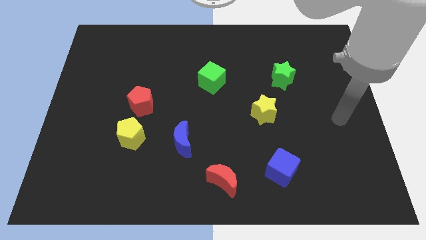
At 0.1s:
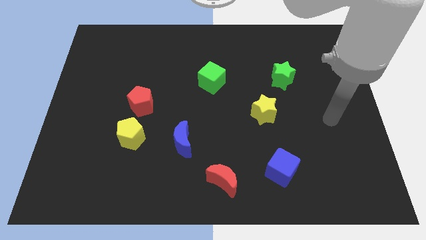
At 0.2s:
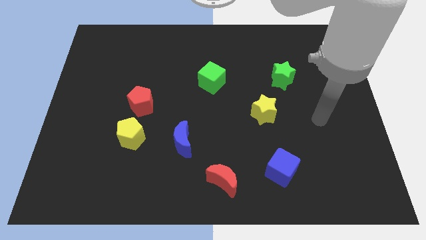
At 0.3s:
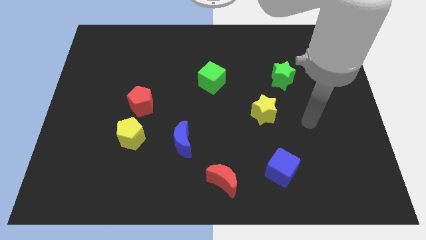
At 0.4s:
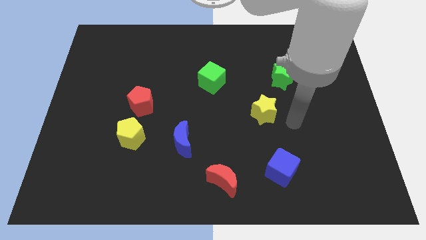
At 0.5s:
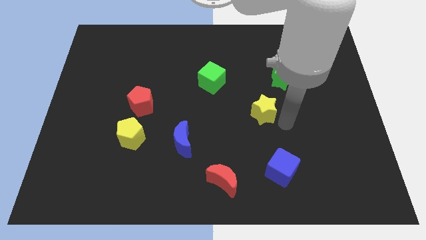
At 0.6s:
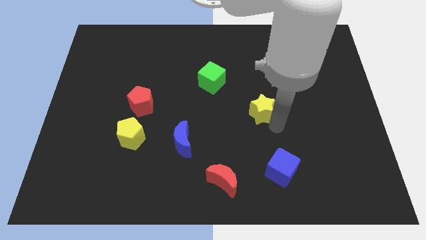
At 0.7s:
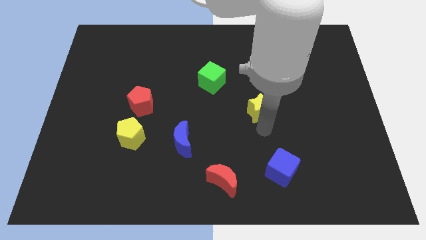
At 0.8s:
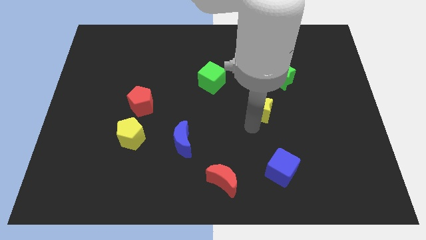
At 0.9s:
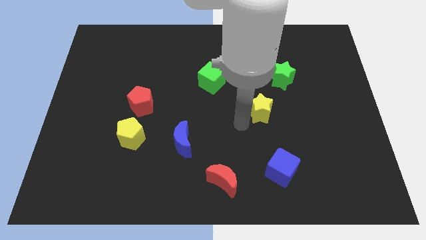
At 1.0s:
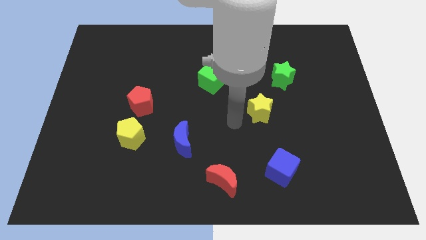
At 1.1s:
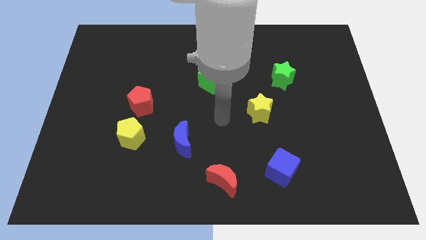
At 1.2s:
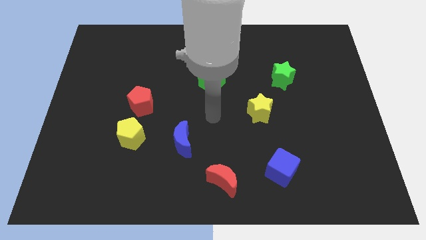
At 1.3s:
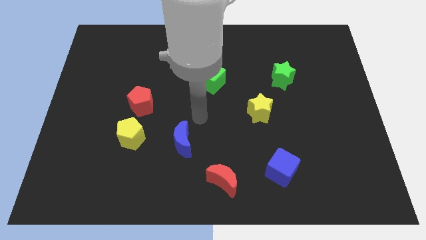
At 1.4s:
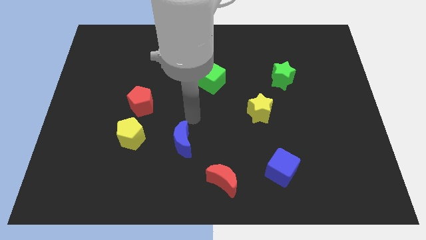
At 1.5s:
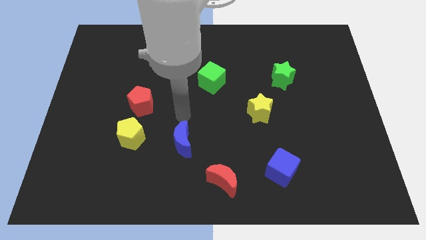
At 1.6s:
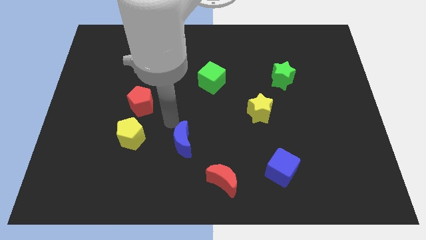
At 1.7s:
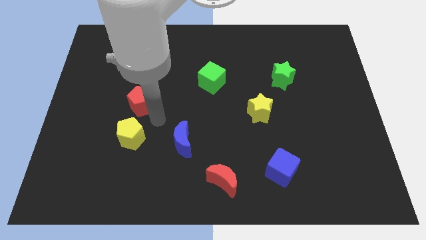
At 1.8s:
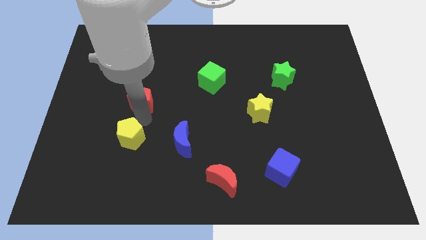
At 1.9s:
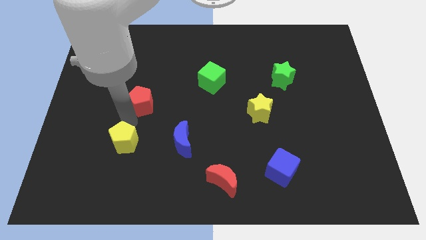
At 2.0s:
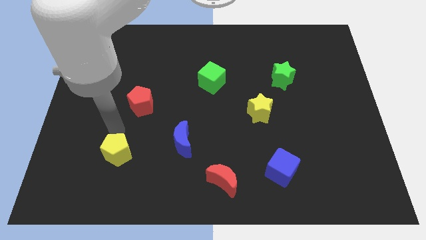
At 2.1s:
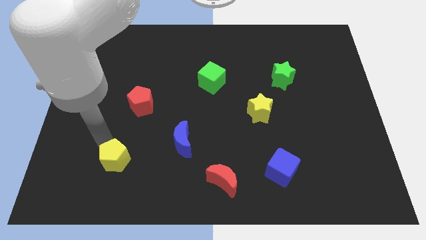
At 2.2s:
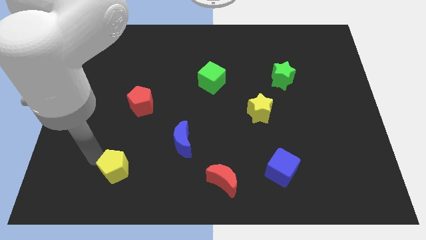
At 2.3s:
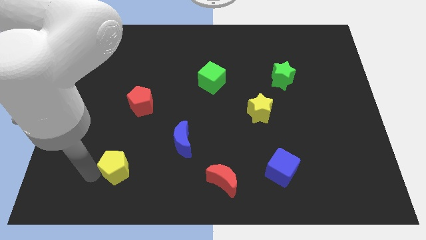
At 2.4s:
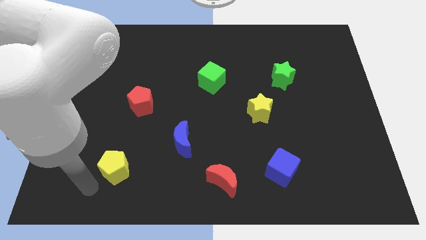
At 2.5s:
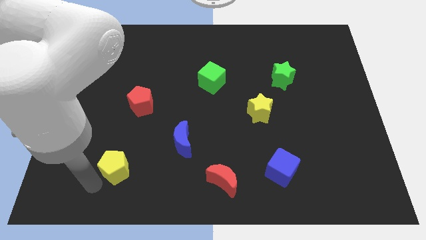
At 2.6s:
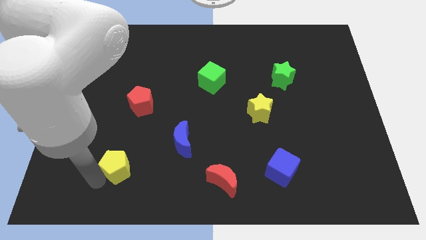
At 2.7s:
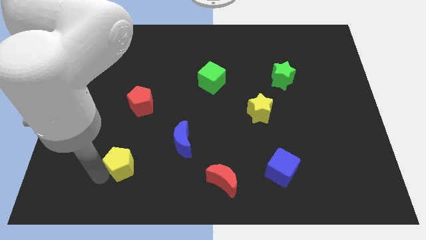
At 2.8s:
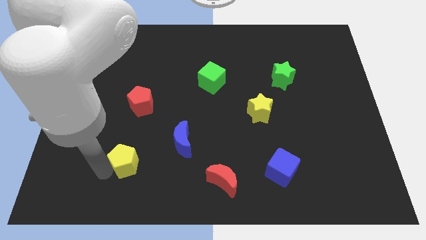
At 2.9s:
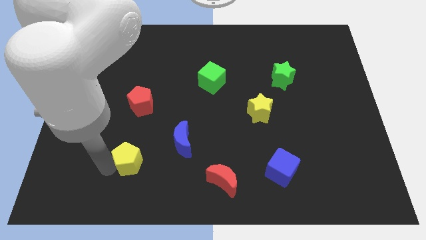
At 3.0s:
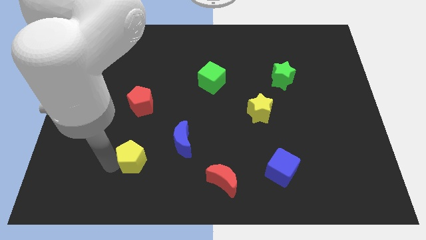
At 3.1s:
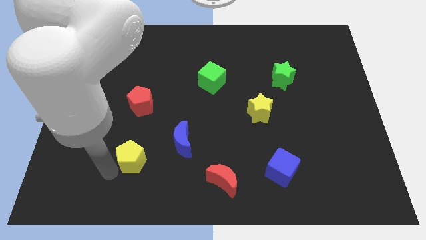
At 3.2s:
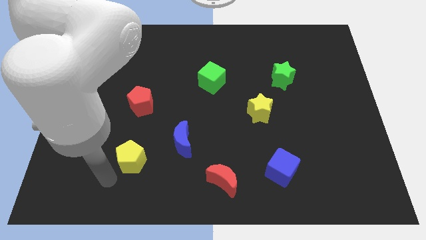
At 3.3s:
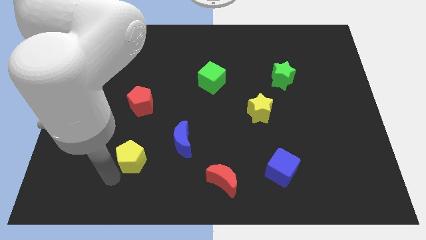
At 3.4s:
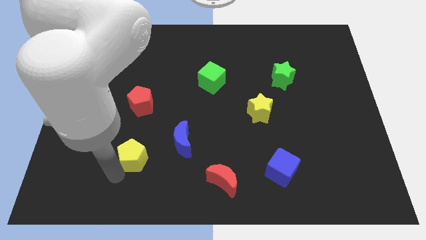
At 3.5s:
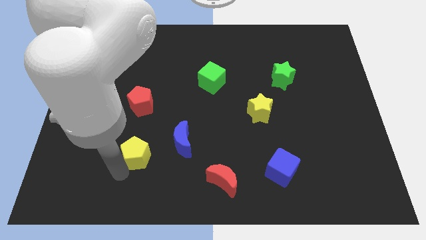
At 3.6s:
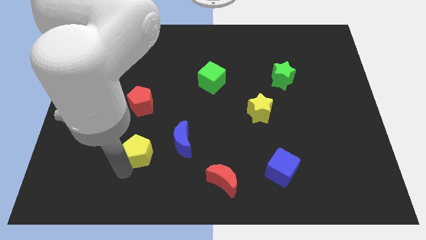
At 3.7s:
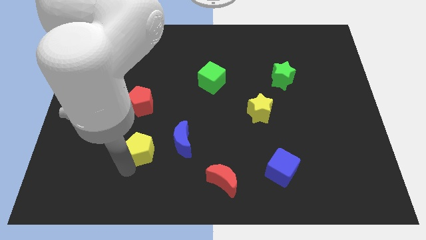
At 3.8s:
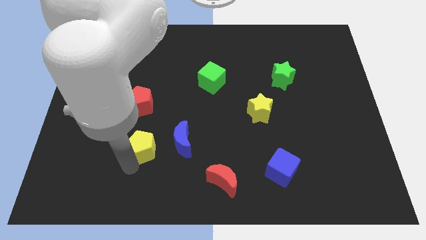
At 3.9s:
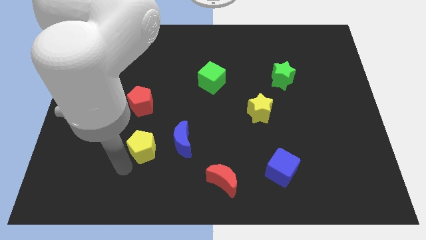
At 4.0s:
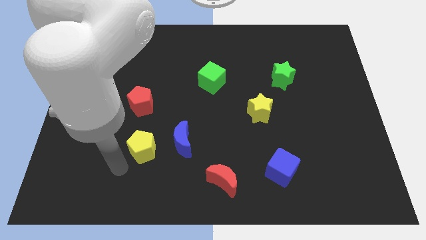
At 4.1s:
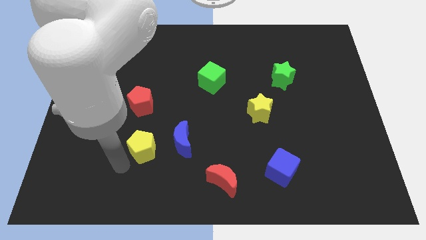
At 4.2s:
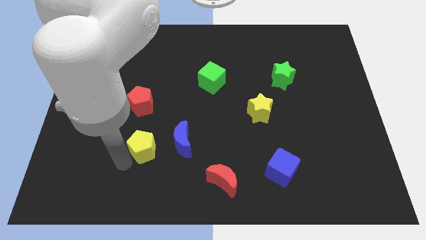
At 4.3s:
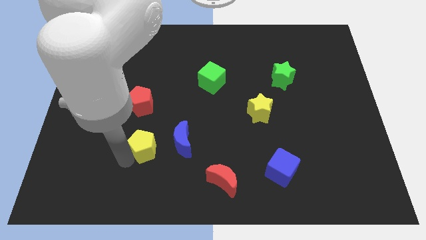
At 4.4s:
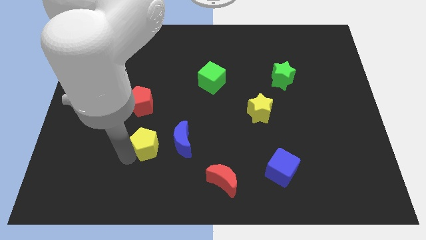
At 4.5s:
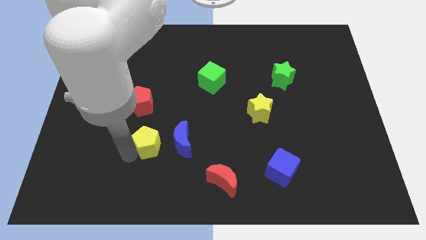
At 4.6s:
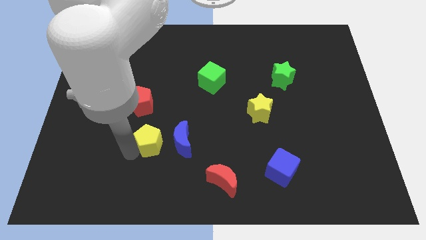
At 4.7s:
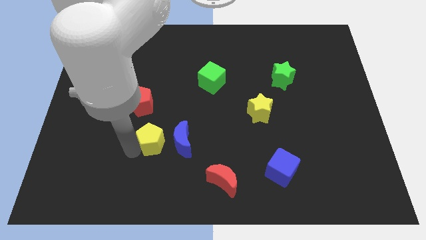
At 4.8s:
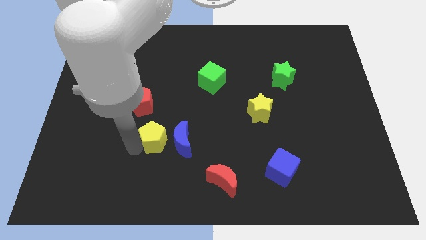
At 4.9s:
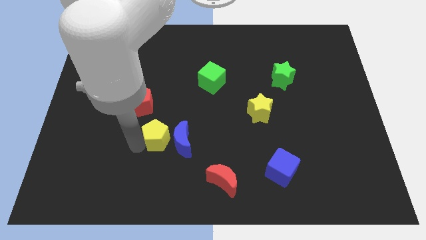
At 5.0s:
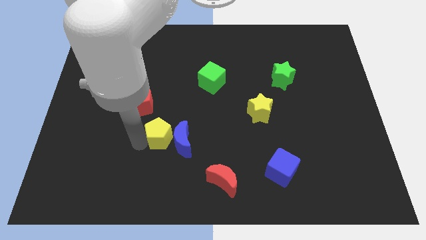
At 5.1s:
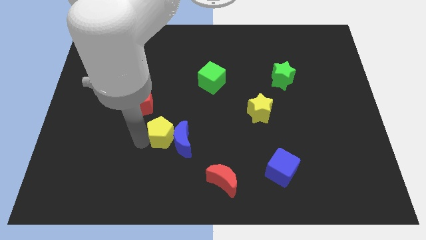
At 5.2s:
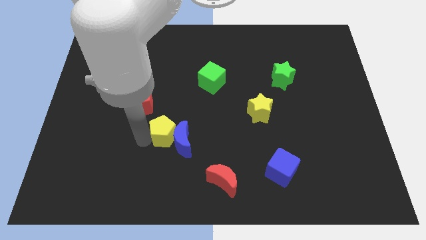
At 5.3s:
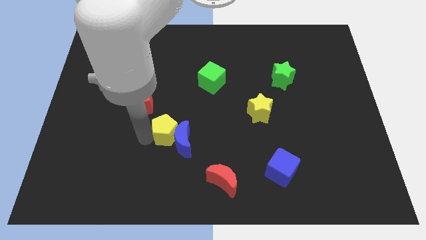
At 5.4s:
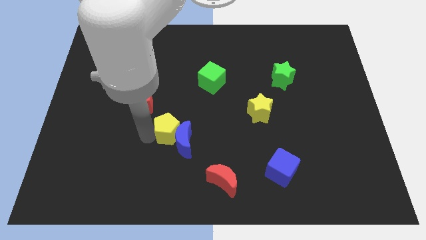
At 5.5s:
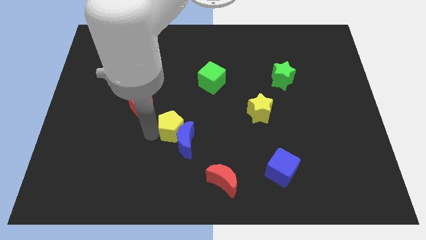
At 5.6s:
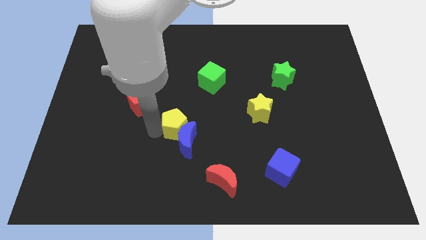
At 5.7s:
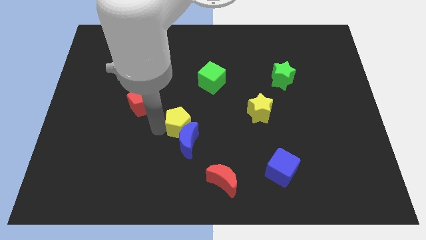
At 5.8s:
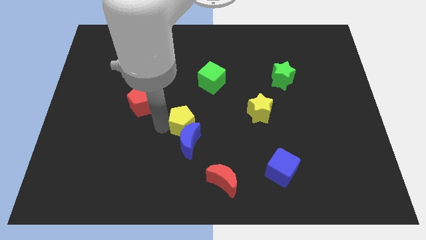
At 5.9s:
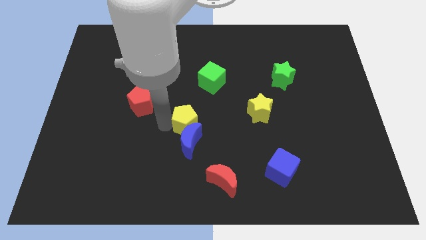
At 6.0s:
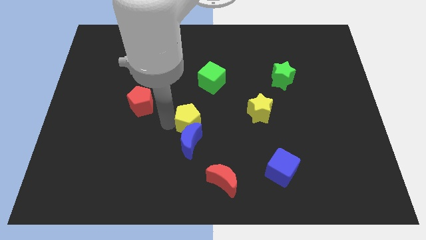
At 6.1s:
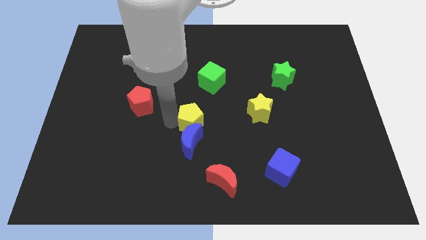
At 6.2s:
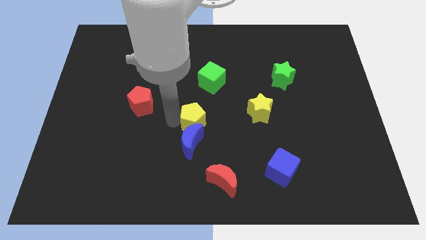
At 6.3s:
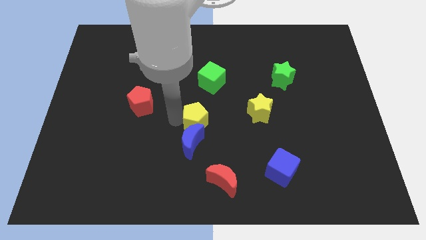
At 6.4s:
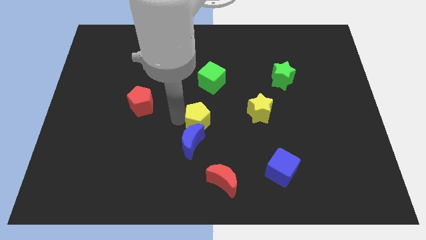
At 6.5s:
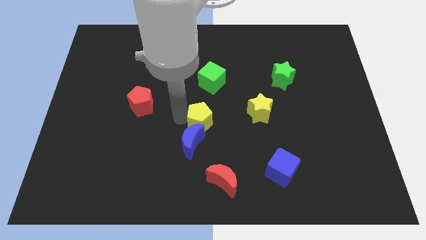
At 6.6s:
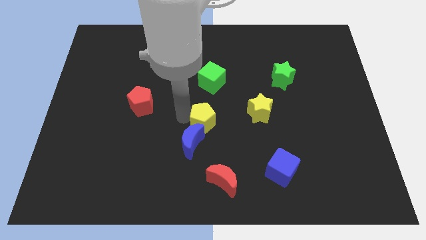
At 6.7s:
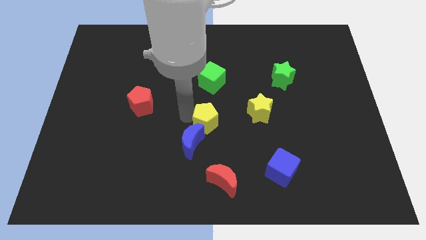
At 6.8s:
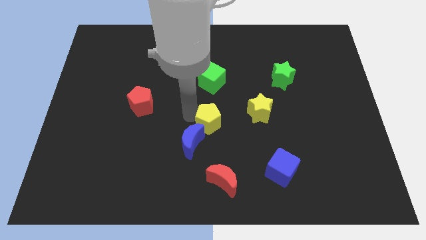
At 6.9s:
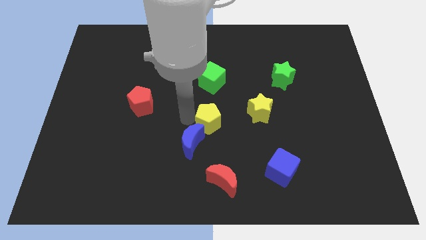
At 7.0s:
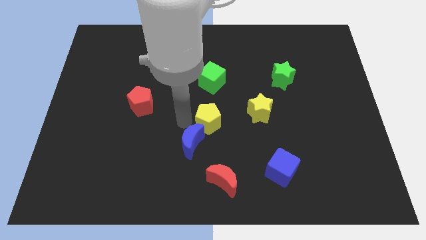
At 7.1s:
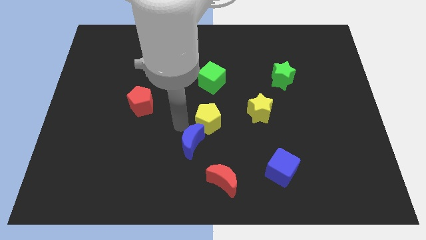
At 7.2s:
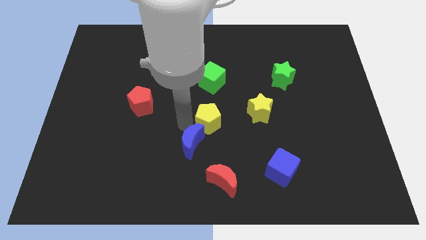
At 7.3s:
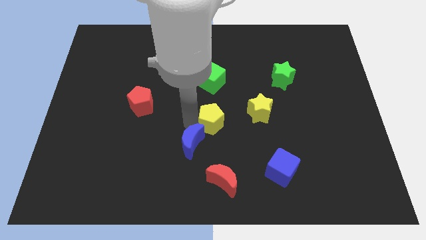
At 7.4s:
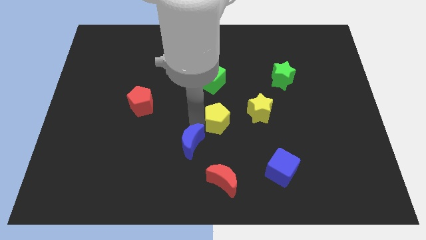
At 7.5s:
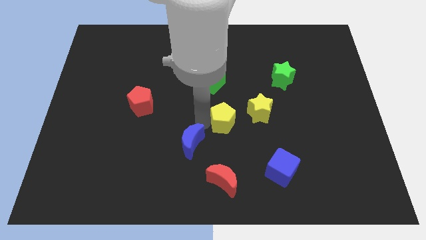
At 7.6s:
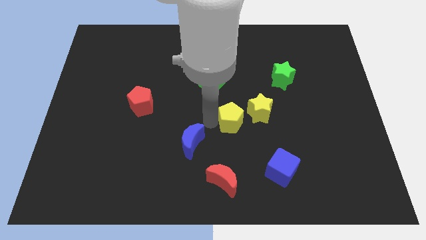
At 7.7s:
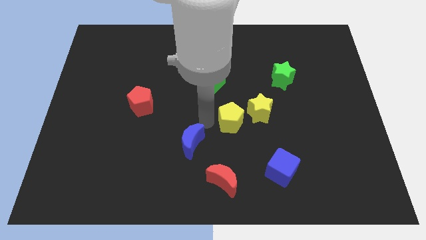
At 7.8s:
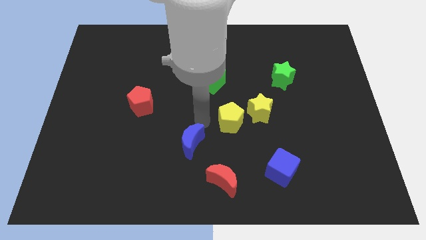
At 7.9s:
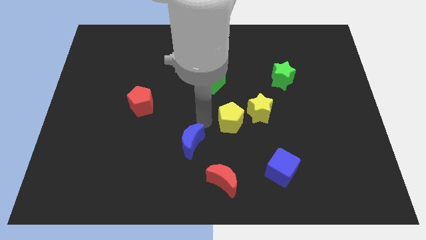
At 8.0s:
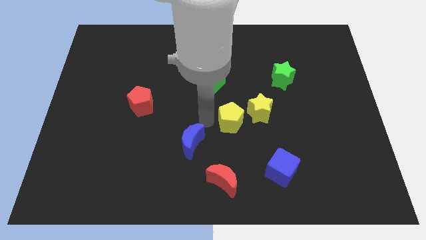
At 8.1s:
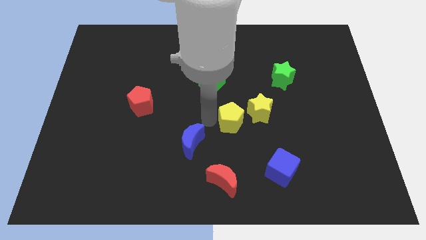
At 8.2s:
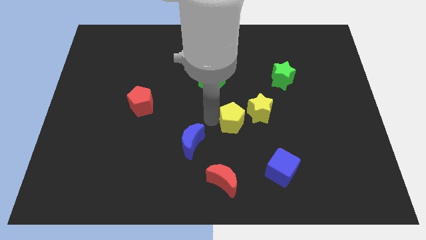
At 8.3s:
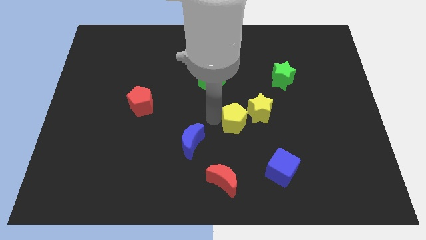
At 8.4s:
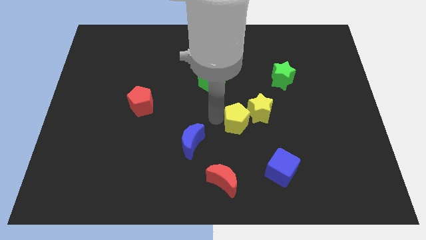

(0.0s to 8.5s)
move the yellow pentagon towards the yellow star
